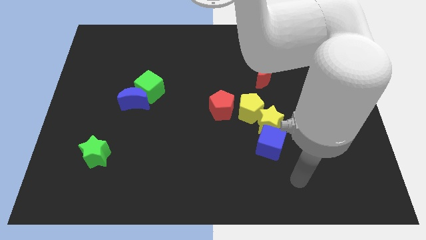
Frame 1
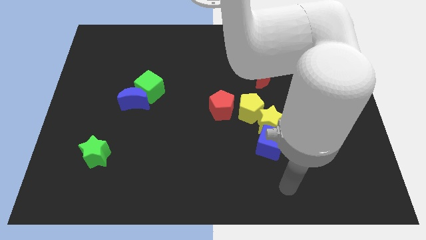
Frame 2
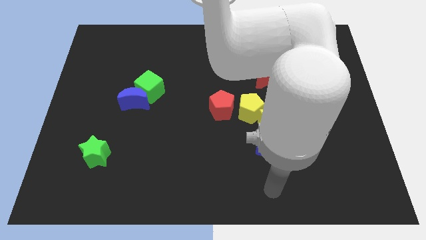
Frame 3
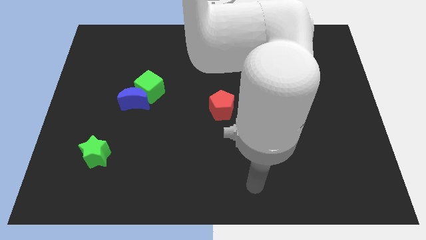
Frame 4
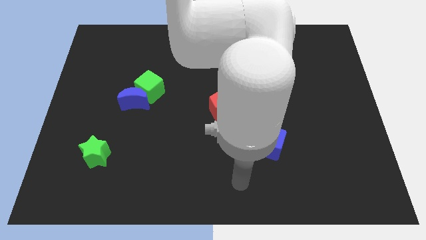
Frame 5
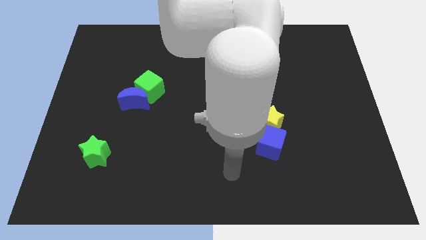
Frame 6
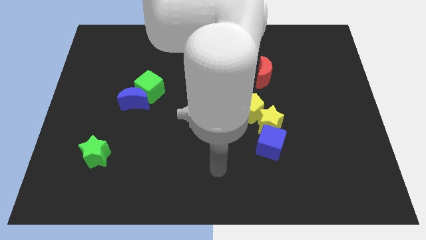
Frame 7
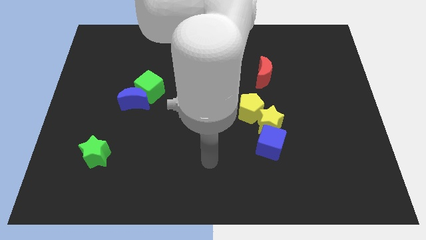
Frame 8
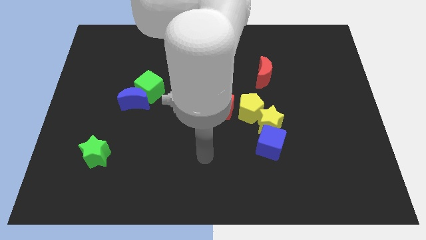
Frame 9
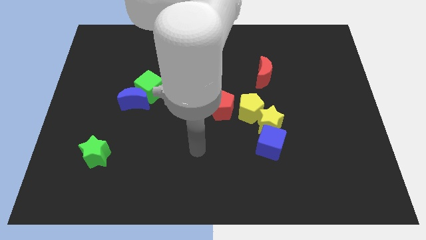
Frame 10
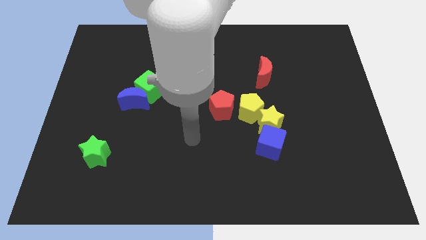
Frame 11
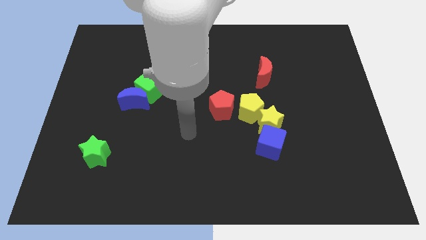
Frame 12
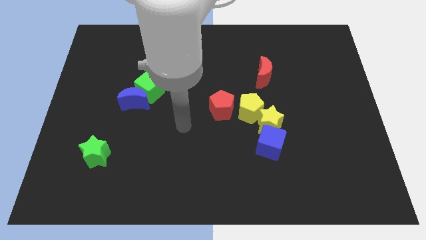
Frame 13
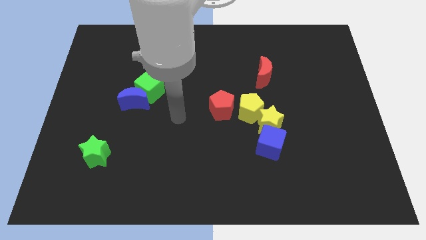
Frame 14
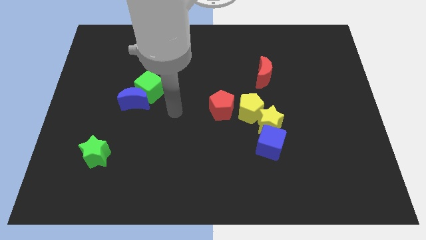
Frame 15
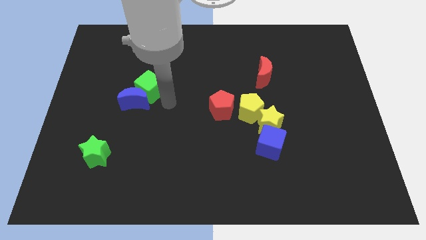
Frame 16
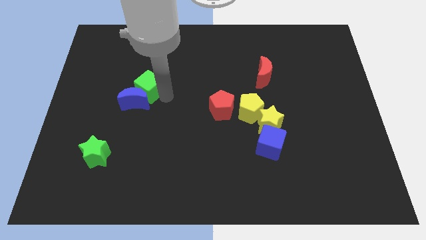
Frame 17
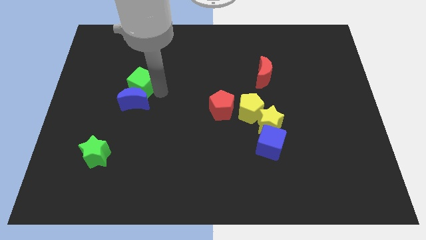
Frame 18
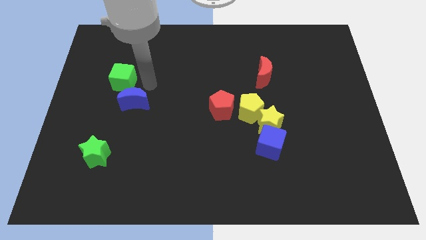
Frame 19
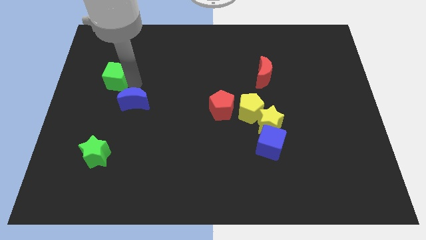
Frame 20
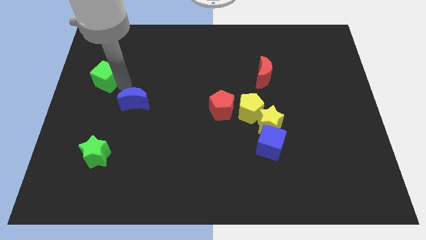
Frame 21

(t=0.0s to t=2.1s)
separate the blue moon from the green cube

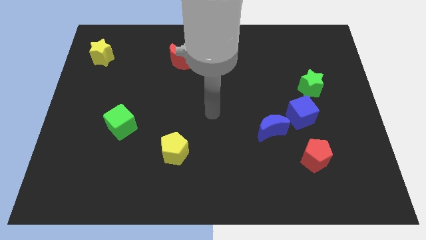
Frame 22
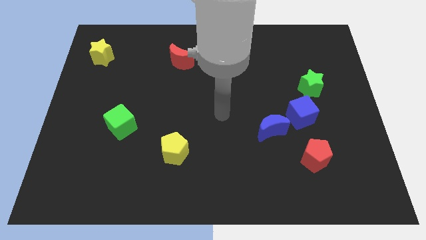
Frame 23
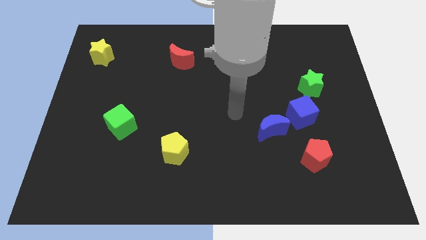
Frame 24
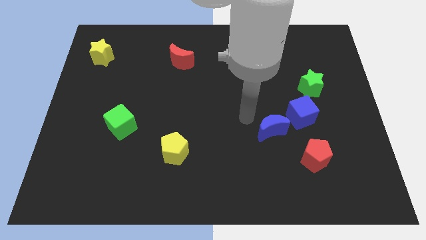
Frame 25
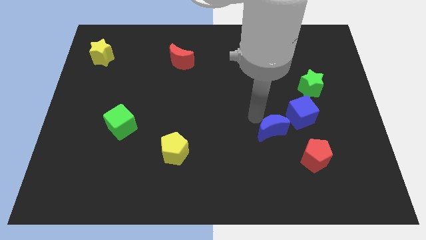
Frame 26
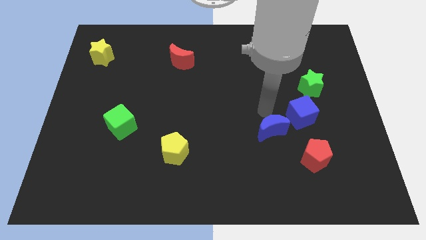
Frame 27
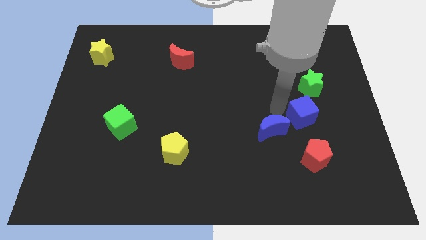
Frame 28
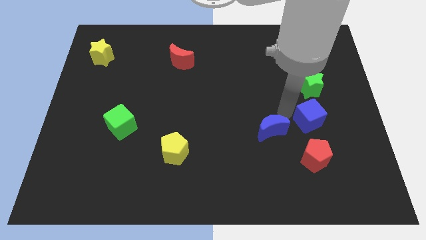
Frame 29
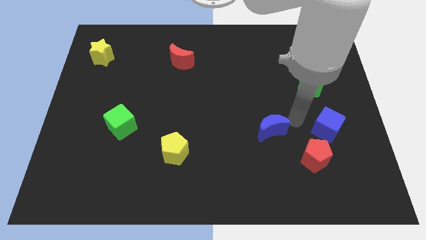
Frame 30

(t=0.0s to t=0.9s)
separate the blue moon from the blue cube

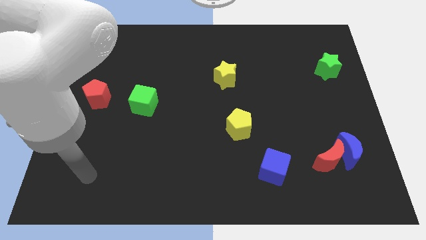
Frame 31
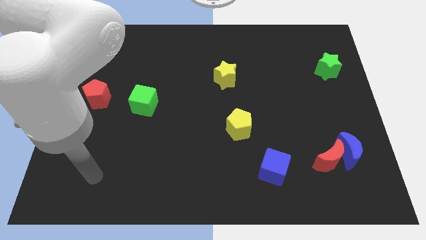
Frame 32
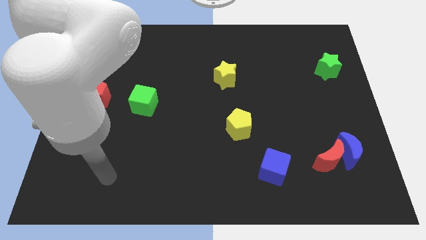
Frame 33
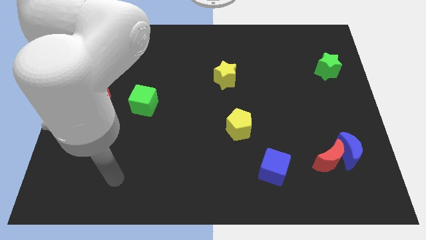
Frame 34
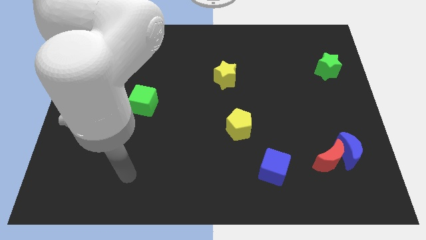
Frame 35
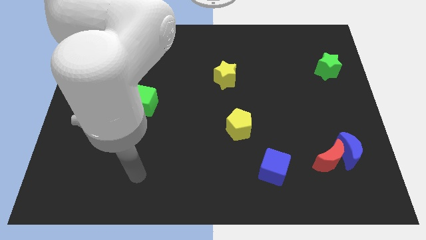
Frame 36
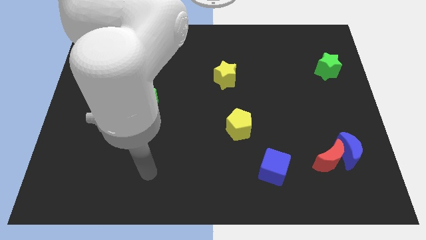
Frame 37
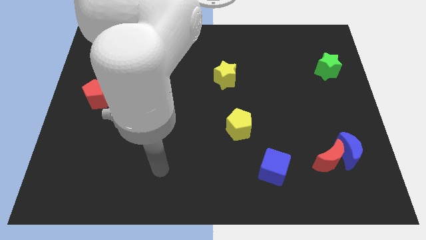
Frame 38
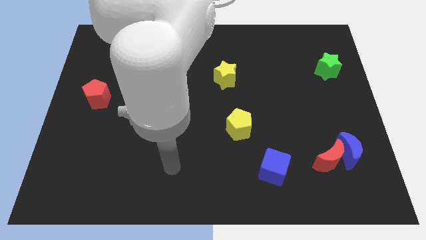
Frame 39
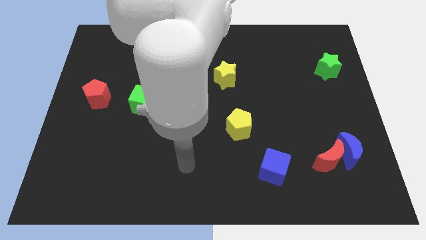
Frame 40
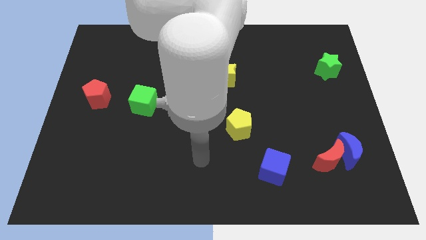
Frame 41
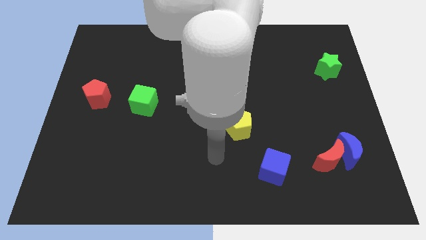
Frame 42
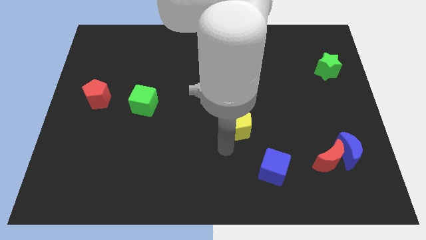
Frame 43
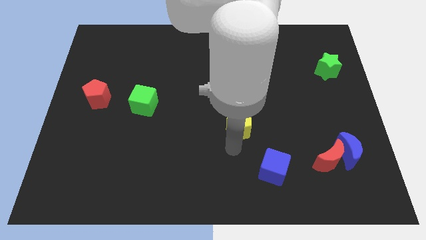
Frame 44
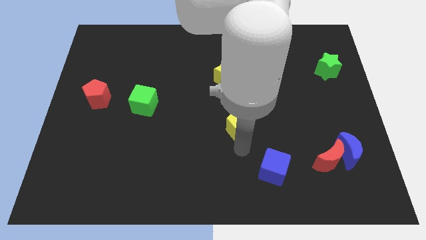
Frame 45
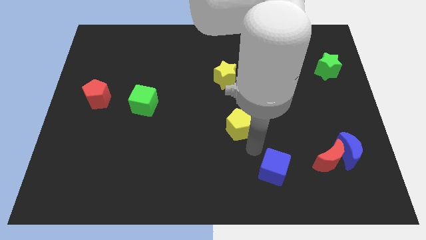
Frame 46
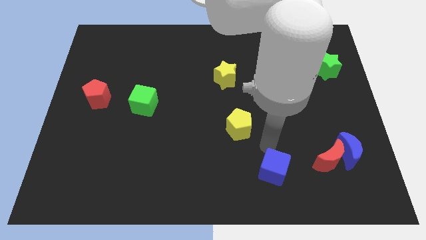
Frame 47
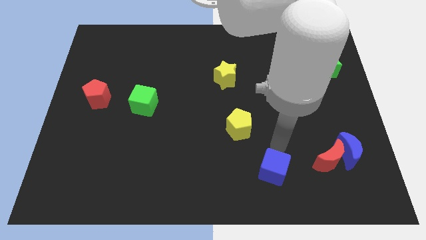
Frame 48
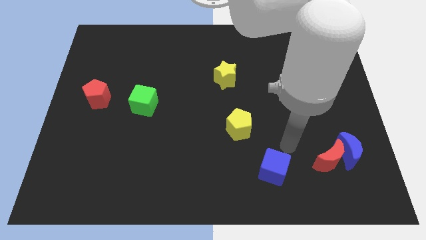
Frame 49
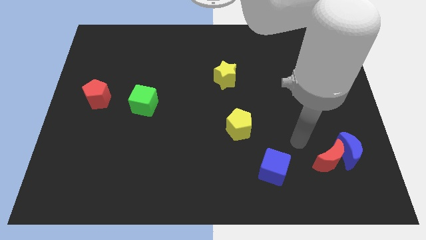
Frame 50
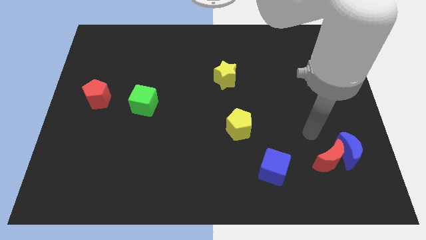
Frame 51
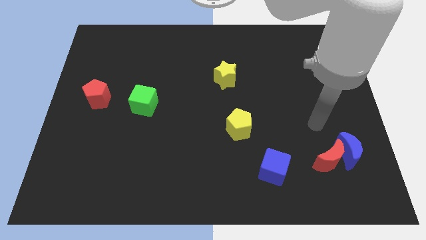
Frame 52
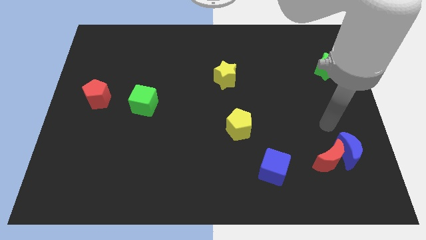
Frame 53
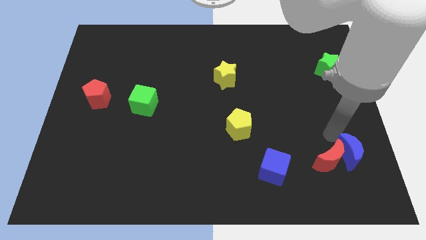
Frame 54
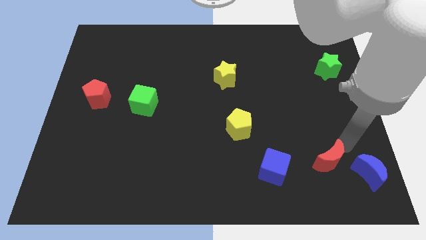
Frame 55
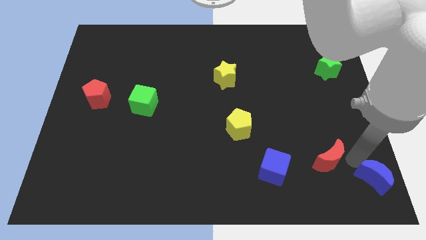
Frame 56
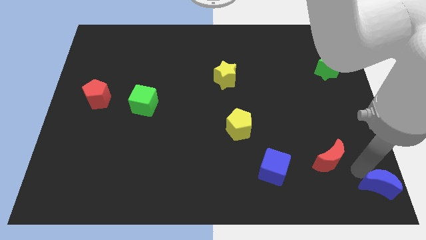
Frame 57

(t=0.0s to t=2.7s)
move the red moon away from the blue moon

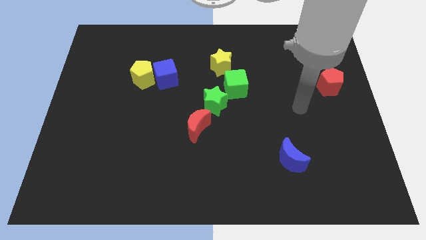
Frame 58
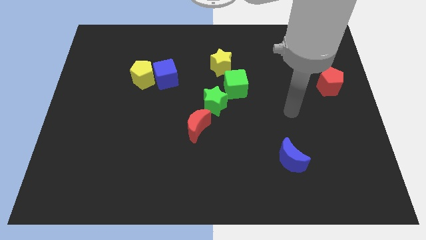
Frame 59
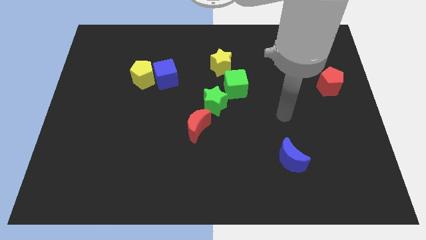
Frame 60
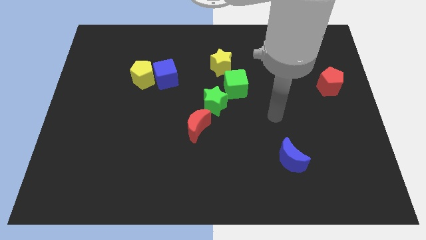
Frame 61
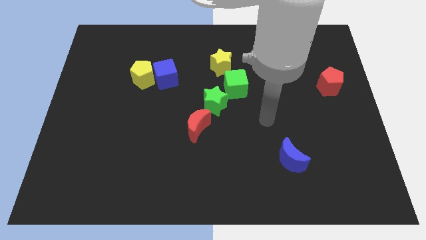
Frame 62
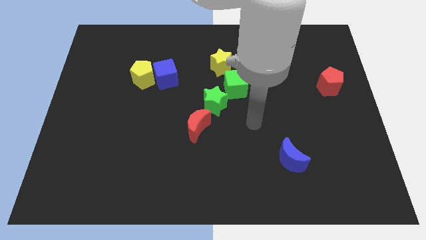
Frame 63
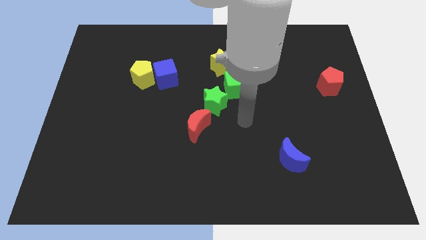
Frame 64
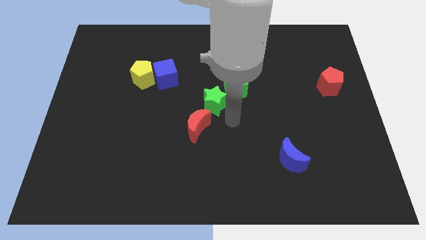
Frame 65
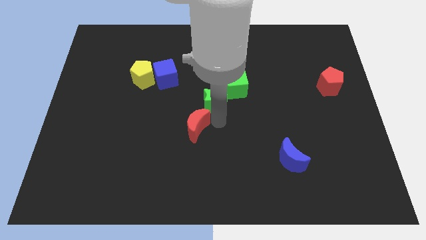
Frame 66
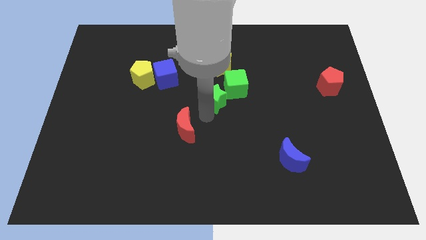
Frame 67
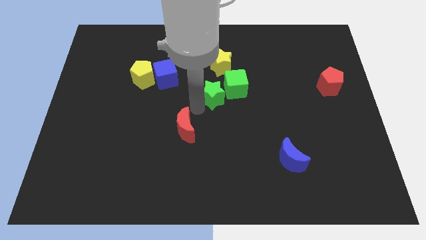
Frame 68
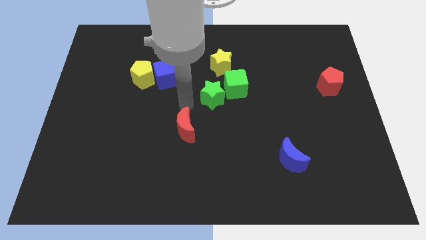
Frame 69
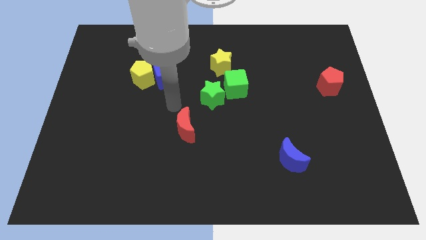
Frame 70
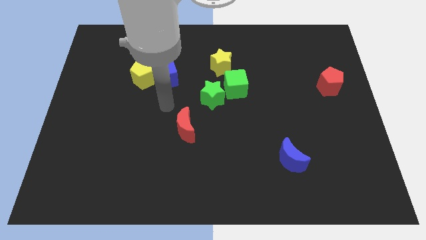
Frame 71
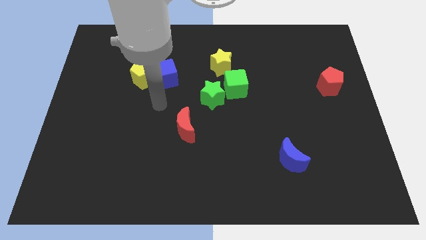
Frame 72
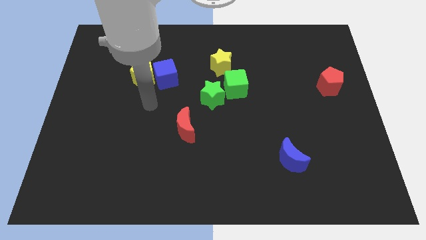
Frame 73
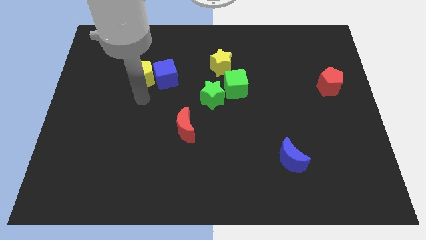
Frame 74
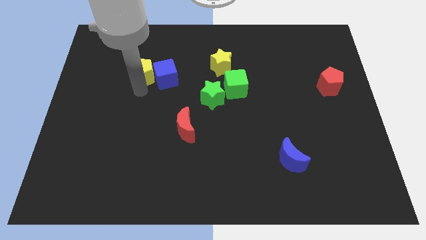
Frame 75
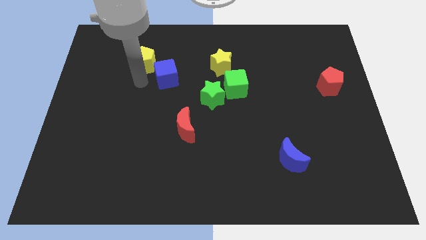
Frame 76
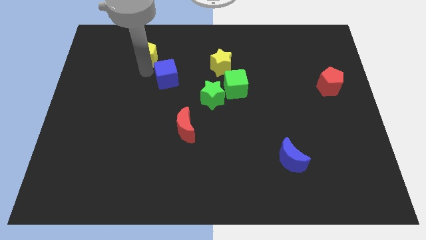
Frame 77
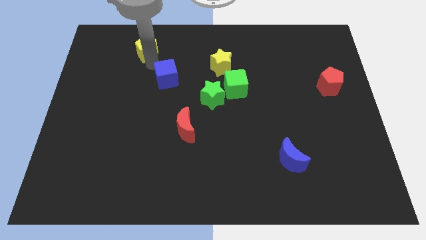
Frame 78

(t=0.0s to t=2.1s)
pull the blue cube apart from the yellow pentagon

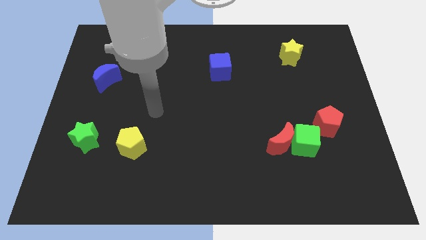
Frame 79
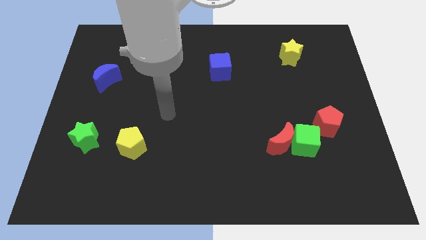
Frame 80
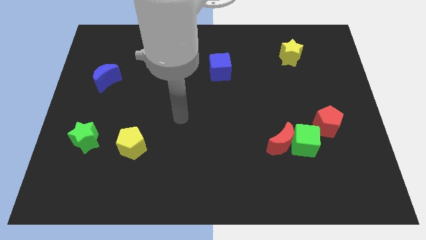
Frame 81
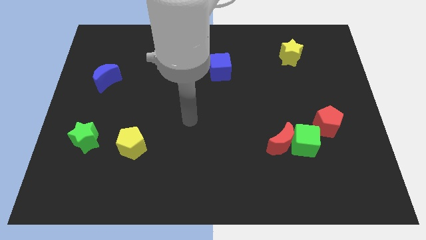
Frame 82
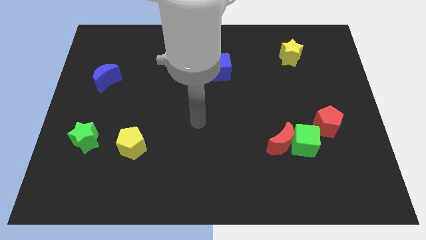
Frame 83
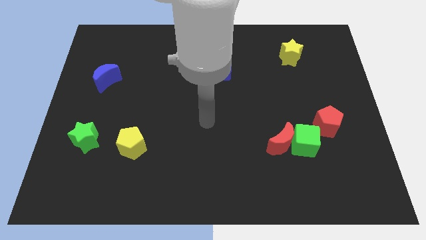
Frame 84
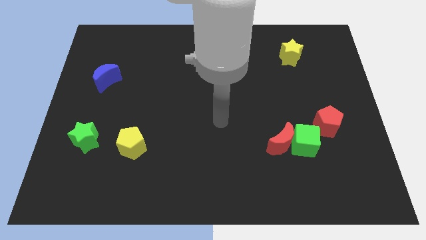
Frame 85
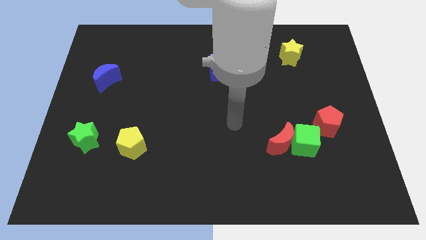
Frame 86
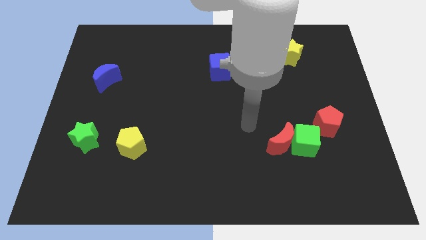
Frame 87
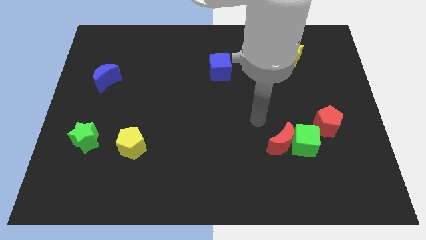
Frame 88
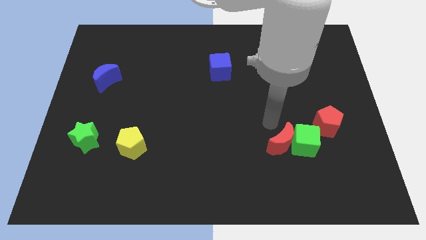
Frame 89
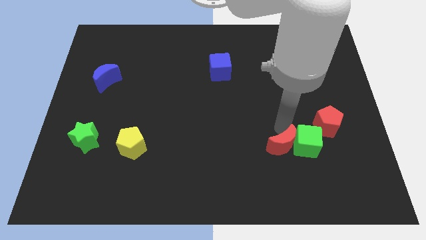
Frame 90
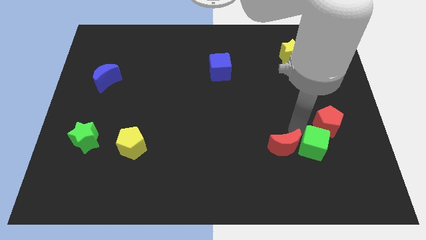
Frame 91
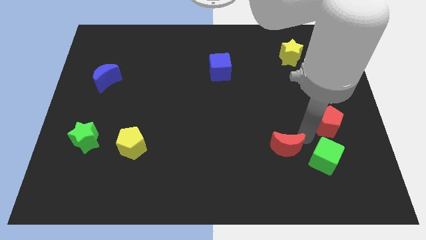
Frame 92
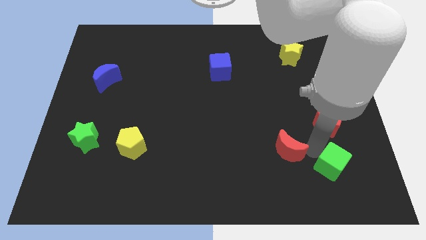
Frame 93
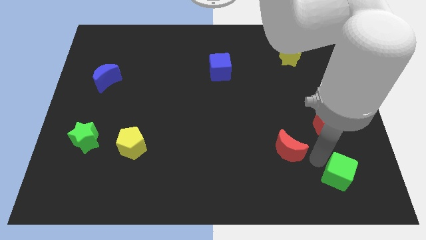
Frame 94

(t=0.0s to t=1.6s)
move the red moon away from the green cube
